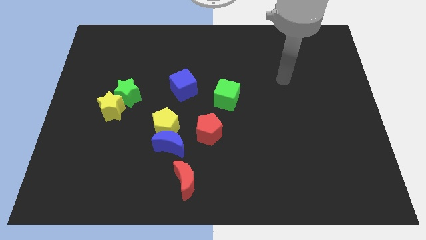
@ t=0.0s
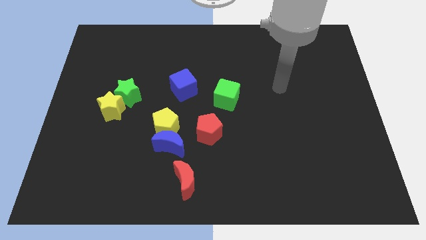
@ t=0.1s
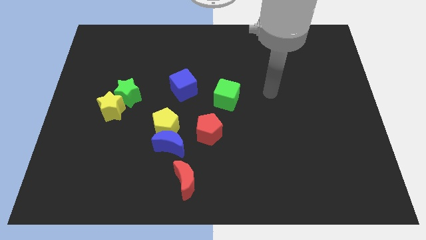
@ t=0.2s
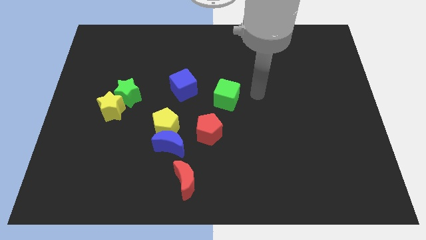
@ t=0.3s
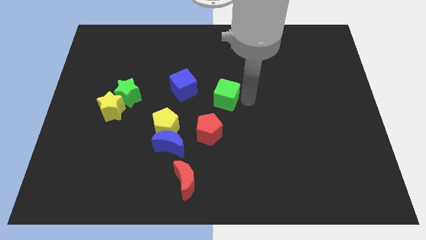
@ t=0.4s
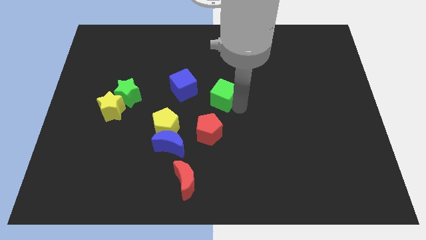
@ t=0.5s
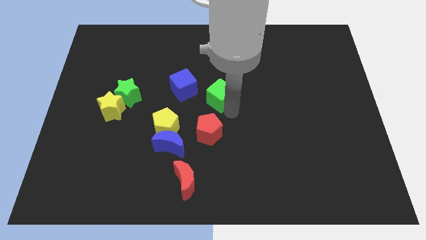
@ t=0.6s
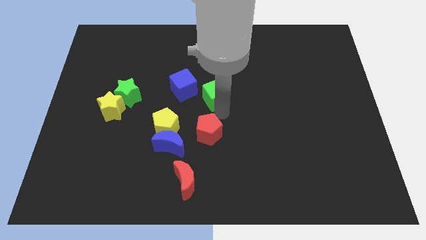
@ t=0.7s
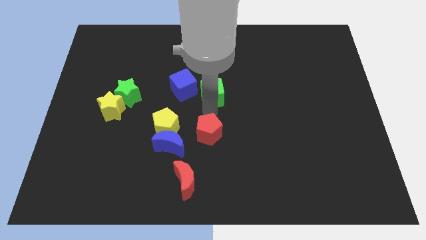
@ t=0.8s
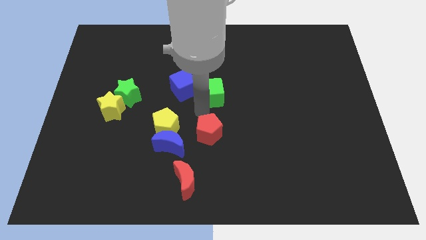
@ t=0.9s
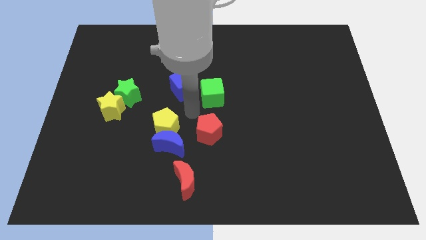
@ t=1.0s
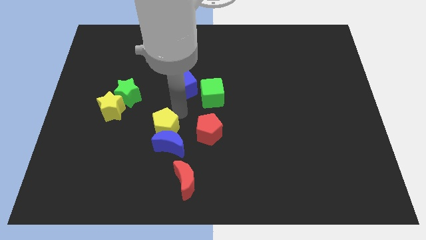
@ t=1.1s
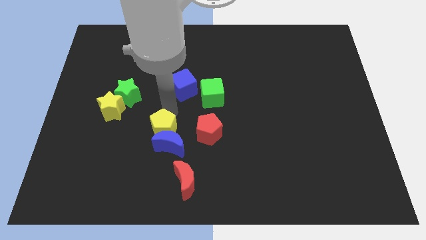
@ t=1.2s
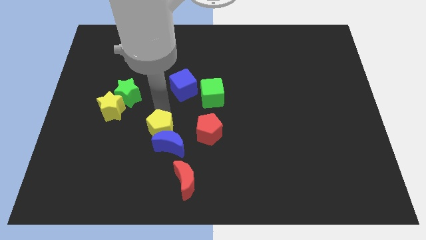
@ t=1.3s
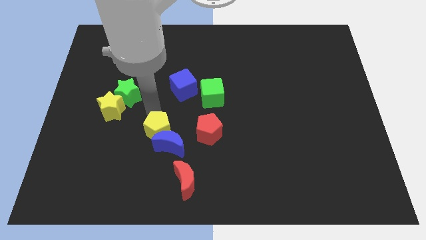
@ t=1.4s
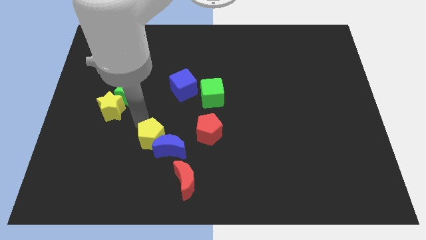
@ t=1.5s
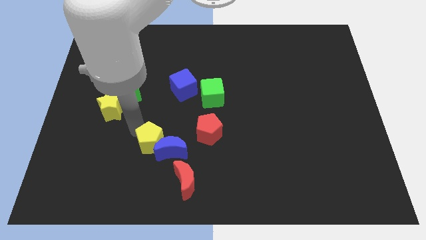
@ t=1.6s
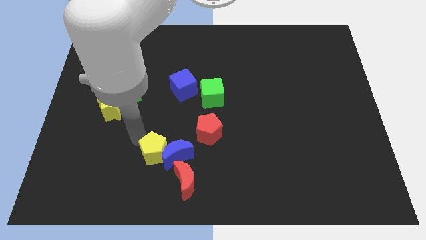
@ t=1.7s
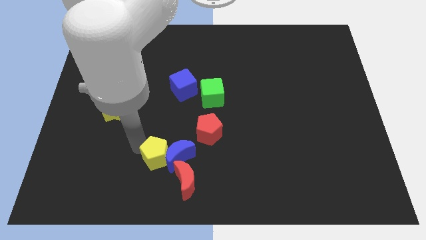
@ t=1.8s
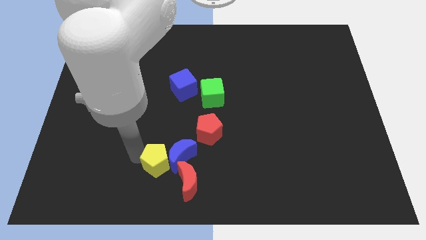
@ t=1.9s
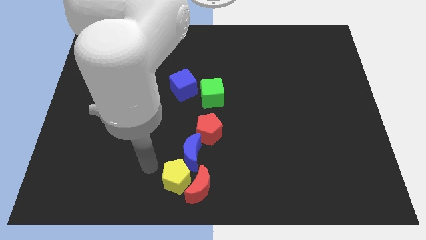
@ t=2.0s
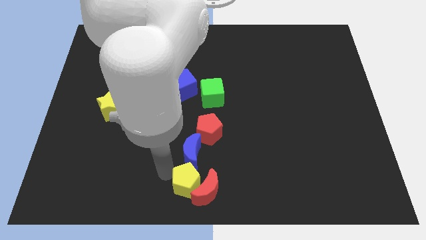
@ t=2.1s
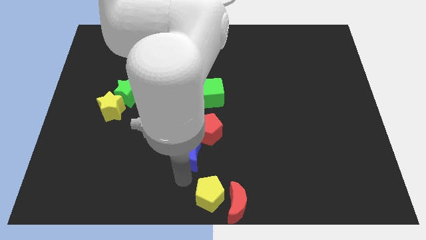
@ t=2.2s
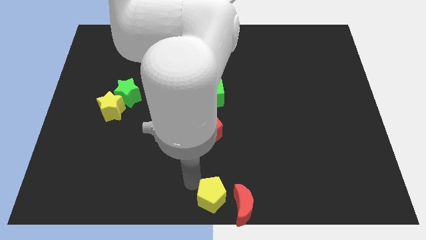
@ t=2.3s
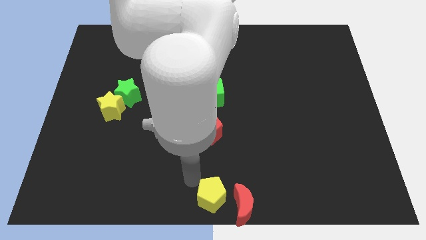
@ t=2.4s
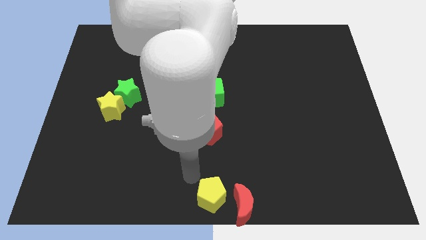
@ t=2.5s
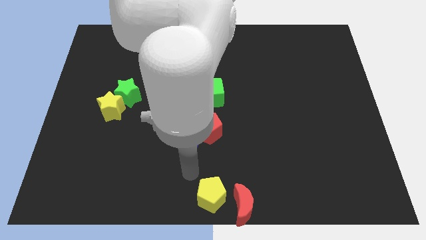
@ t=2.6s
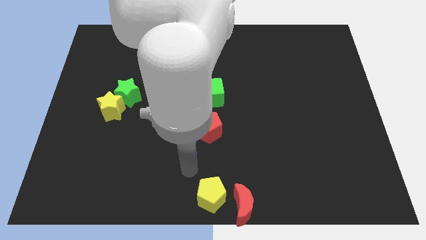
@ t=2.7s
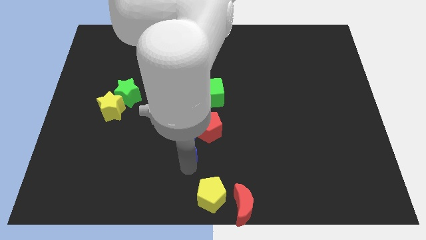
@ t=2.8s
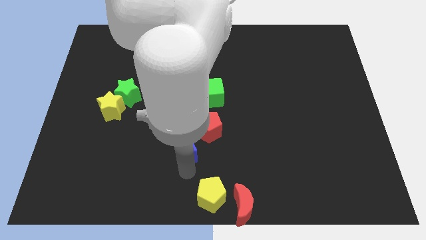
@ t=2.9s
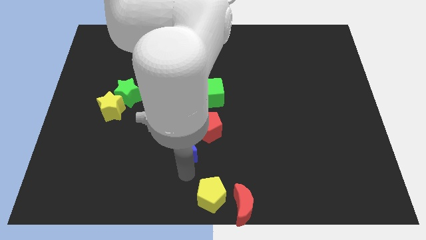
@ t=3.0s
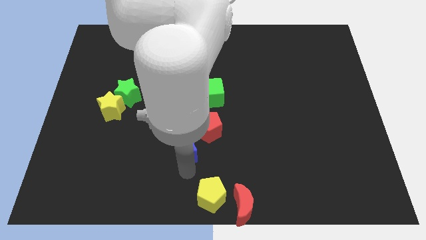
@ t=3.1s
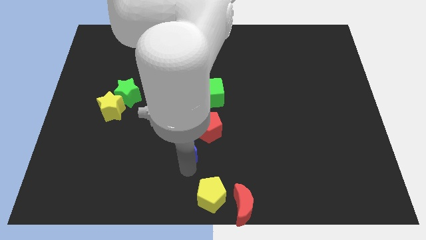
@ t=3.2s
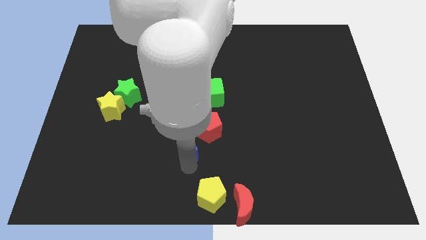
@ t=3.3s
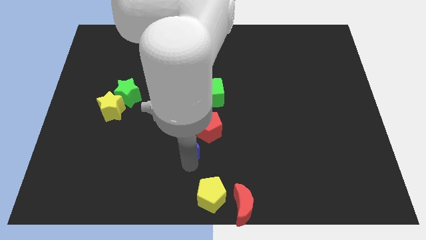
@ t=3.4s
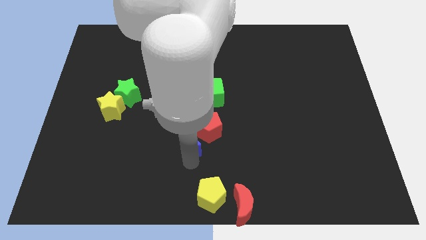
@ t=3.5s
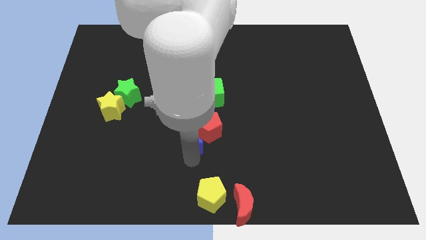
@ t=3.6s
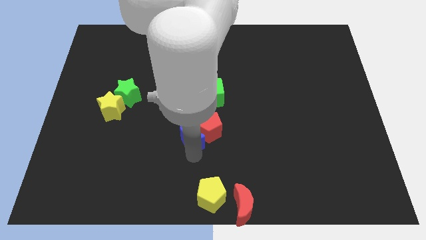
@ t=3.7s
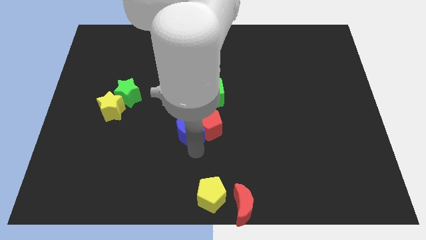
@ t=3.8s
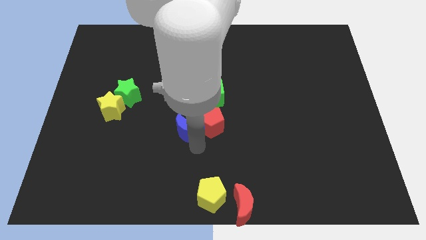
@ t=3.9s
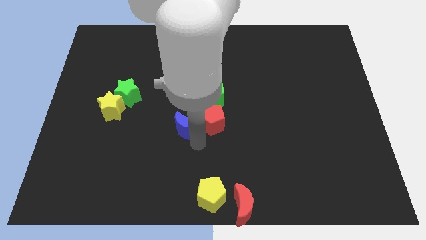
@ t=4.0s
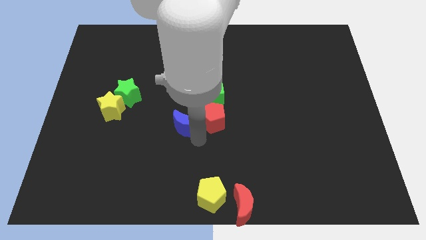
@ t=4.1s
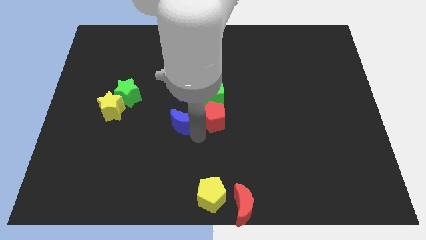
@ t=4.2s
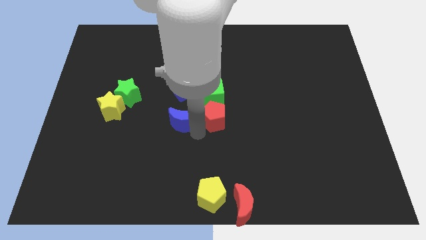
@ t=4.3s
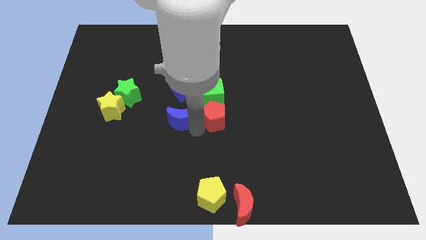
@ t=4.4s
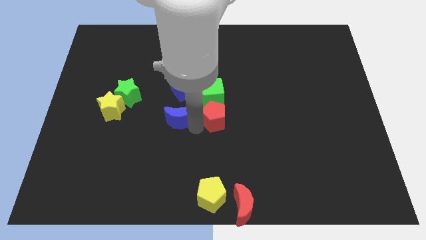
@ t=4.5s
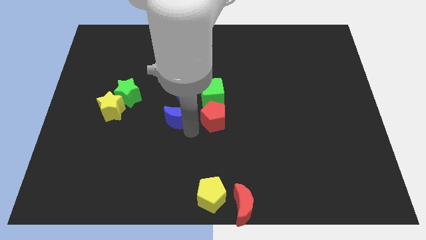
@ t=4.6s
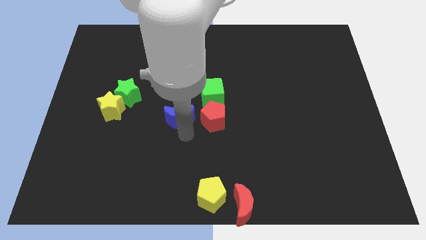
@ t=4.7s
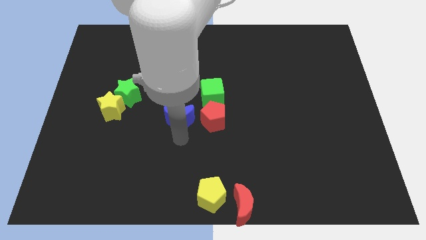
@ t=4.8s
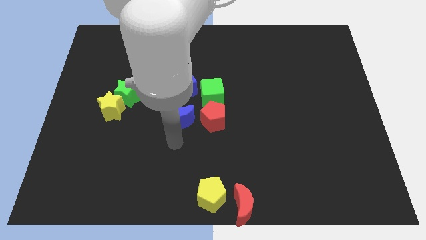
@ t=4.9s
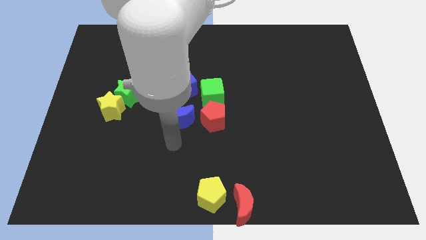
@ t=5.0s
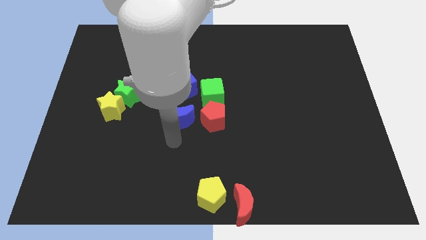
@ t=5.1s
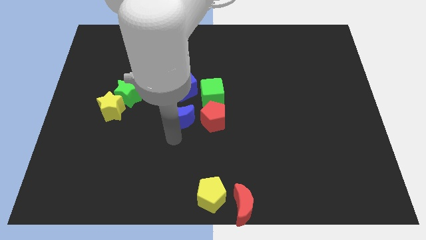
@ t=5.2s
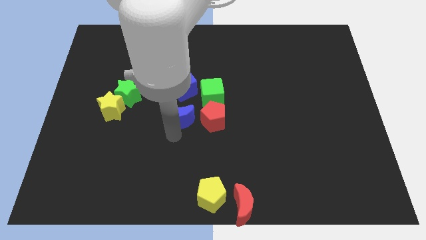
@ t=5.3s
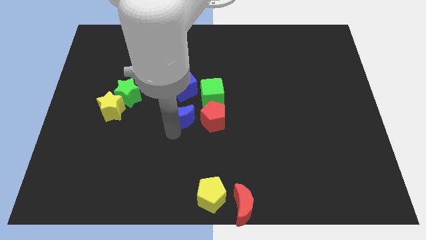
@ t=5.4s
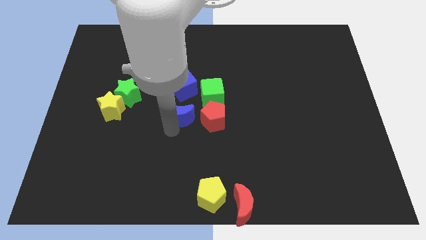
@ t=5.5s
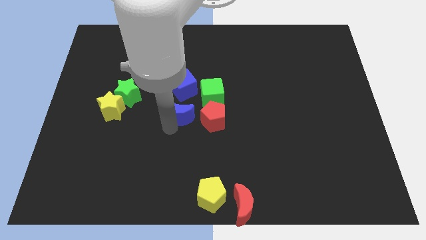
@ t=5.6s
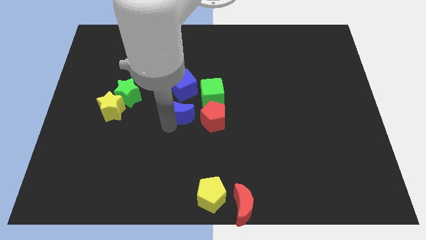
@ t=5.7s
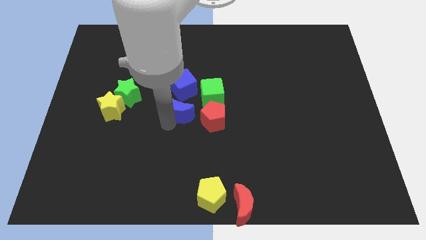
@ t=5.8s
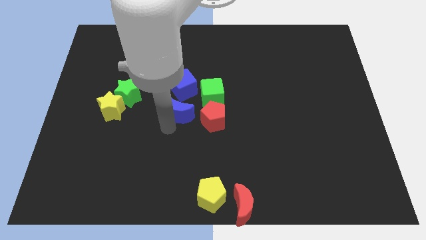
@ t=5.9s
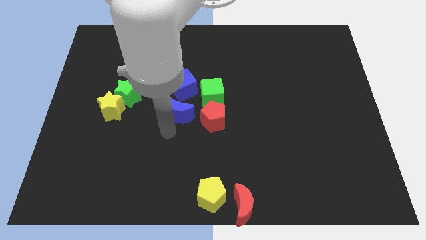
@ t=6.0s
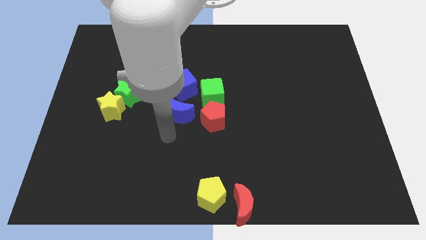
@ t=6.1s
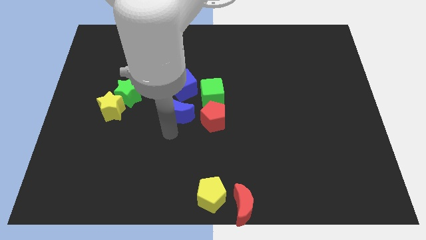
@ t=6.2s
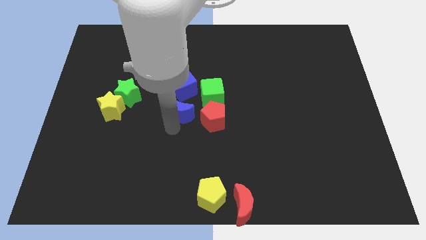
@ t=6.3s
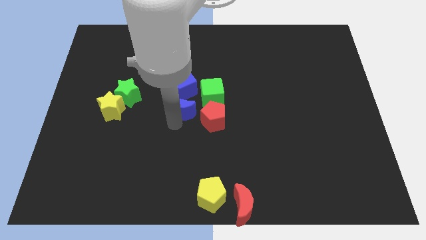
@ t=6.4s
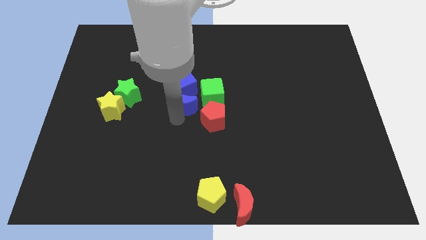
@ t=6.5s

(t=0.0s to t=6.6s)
push the blue moon close to the blue cube

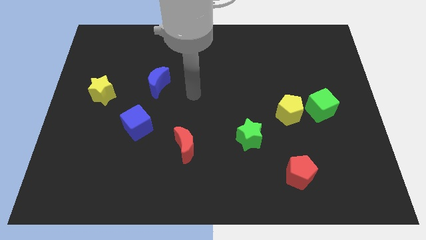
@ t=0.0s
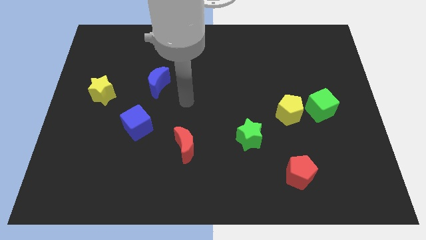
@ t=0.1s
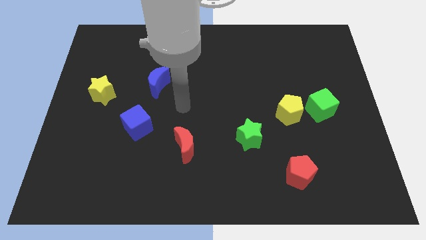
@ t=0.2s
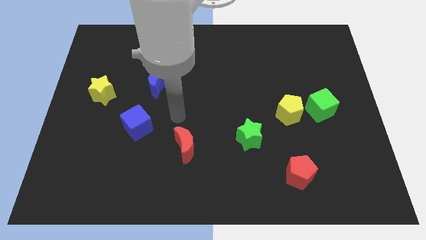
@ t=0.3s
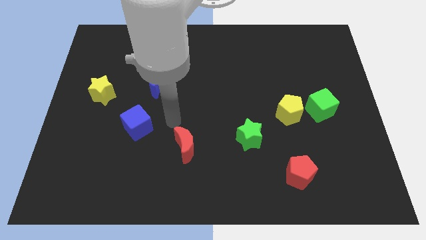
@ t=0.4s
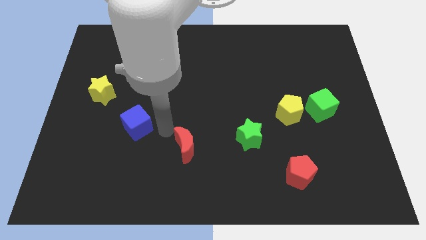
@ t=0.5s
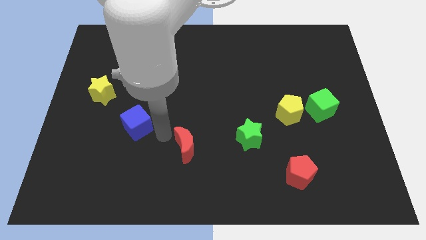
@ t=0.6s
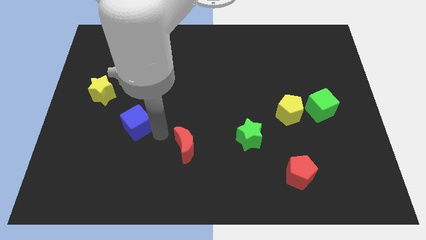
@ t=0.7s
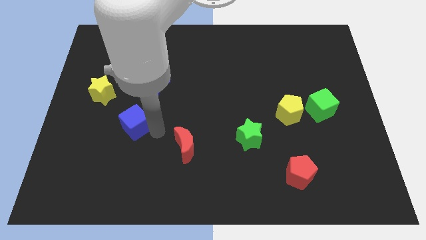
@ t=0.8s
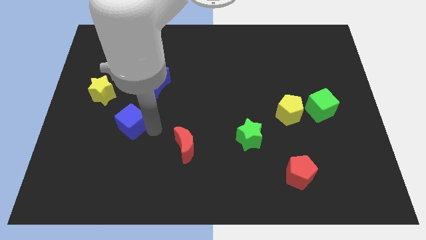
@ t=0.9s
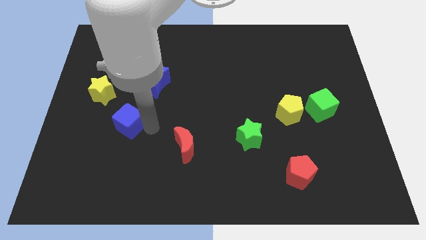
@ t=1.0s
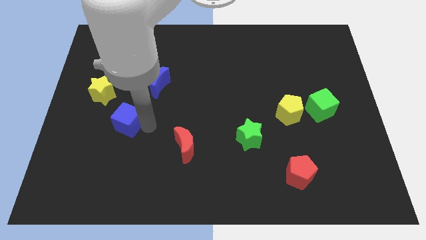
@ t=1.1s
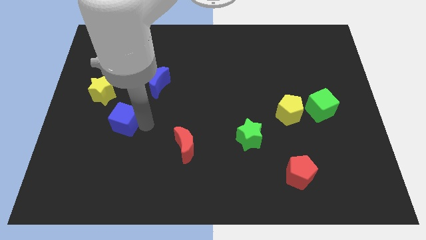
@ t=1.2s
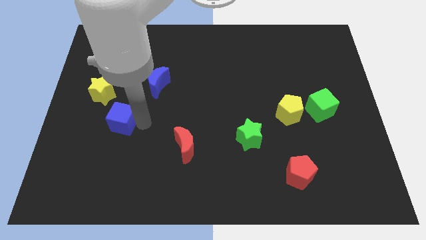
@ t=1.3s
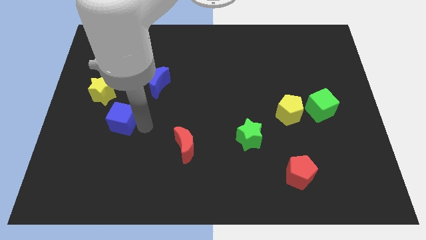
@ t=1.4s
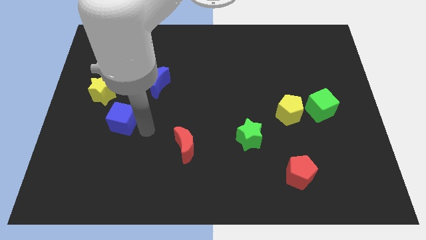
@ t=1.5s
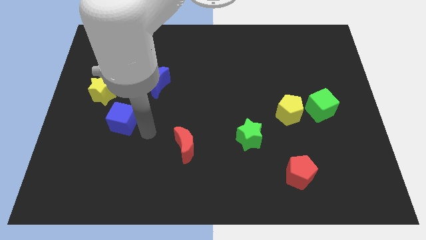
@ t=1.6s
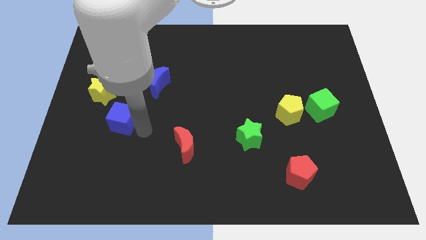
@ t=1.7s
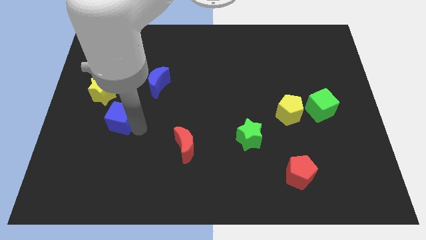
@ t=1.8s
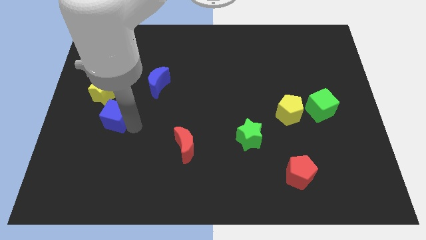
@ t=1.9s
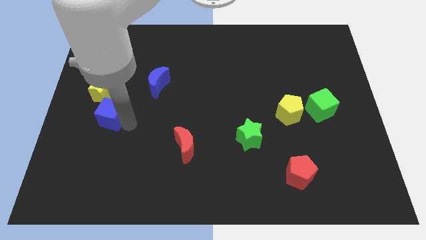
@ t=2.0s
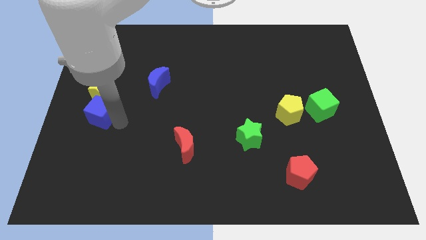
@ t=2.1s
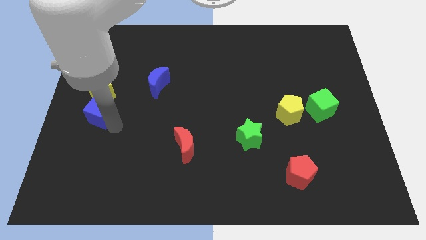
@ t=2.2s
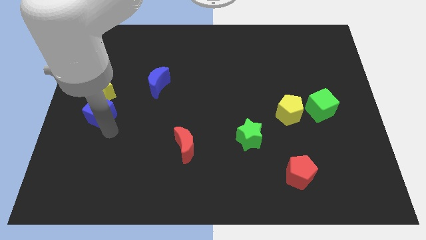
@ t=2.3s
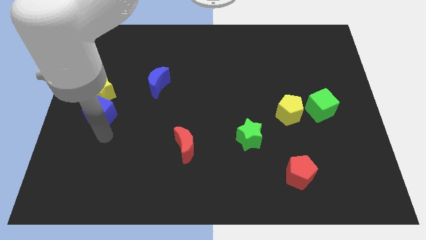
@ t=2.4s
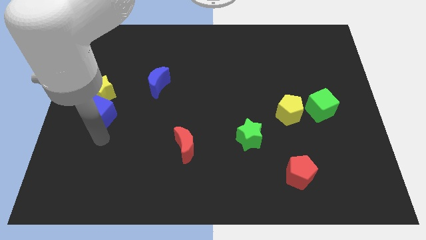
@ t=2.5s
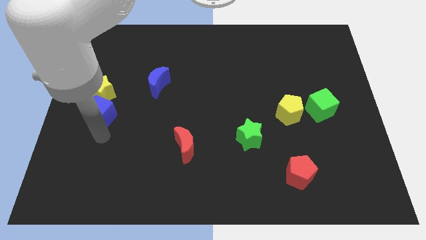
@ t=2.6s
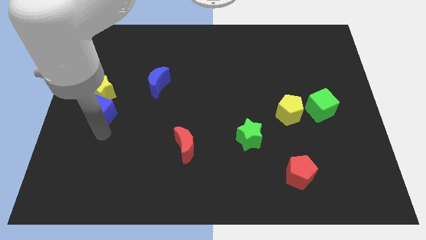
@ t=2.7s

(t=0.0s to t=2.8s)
put the blue cube next to the yellow star
